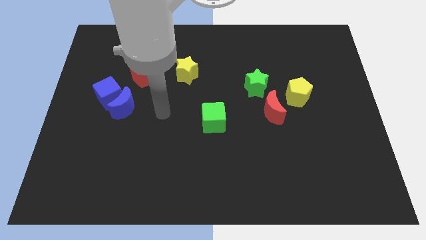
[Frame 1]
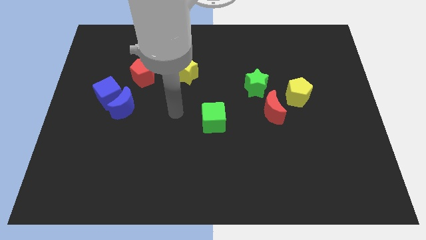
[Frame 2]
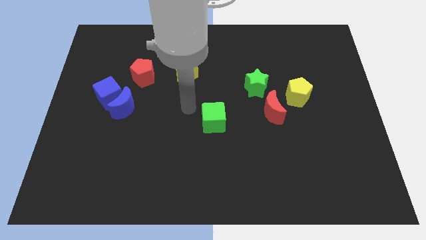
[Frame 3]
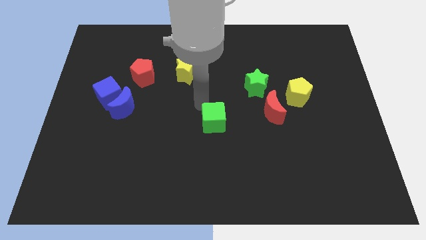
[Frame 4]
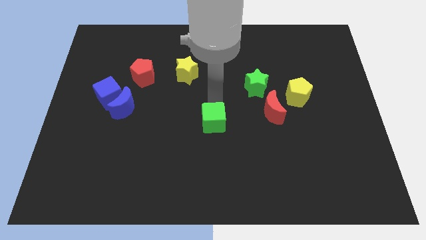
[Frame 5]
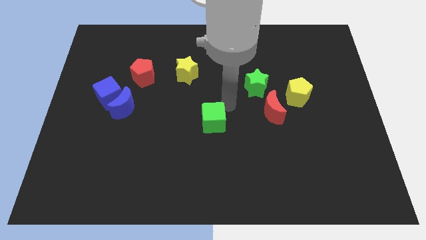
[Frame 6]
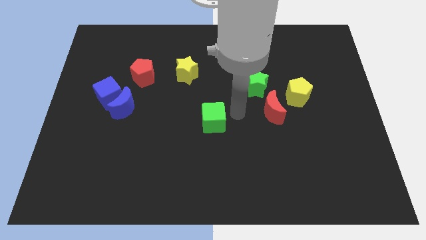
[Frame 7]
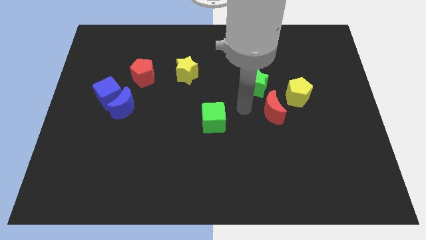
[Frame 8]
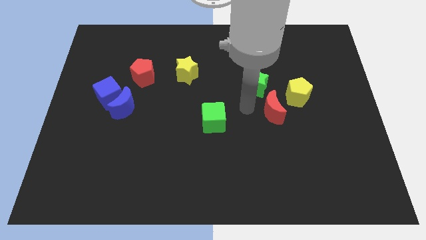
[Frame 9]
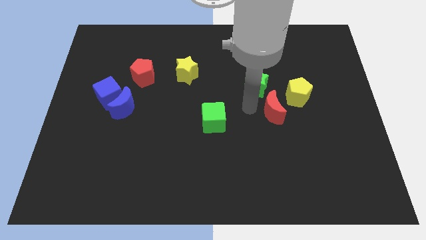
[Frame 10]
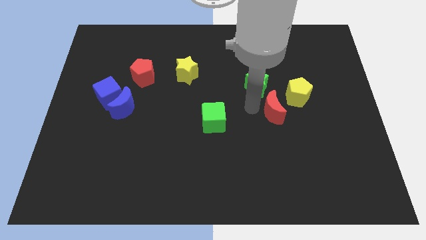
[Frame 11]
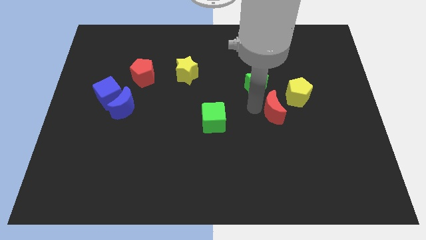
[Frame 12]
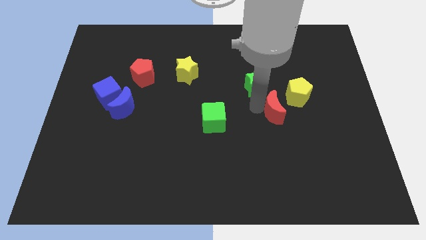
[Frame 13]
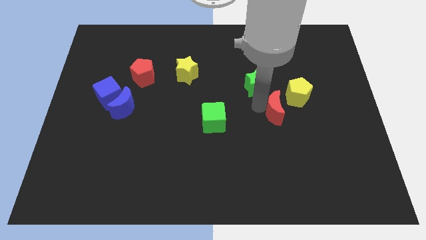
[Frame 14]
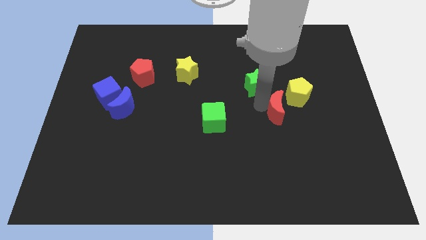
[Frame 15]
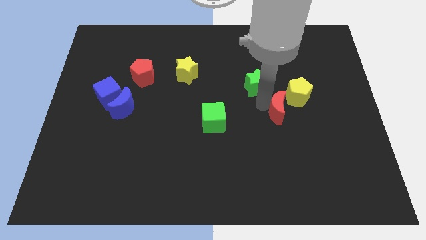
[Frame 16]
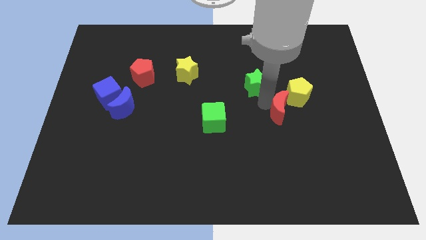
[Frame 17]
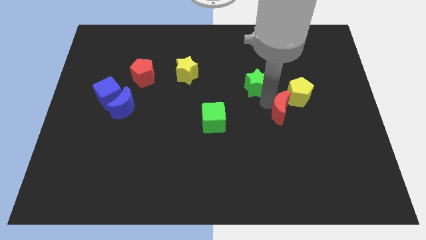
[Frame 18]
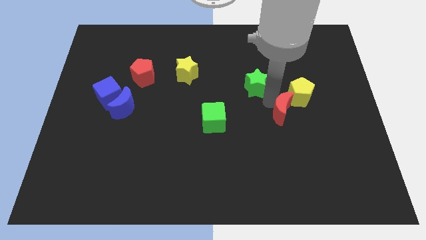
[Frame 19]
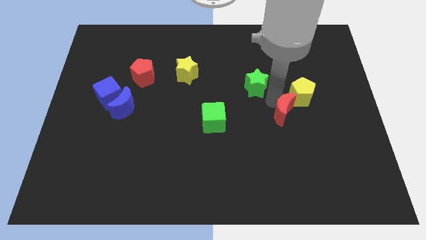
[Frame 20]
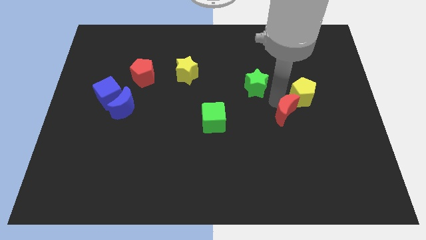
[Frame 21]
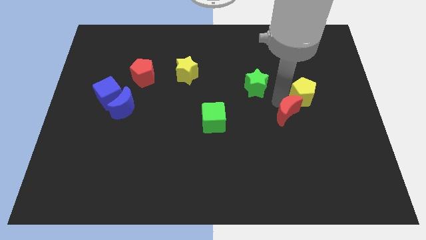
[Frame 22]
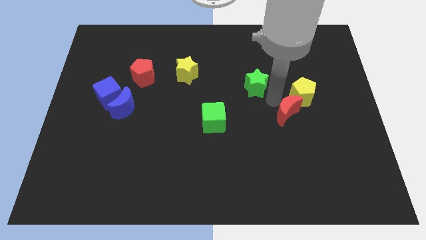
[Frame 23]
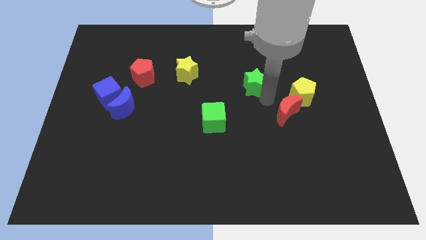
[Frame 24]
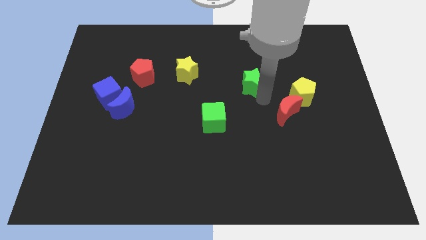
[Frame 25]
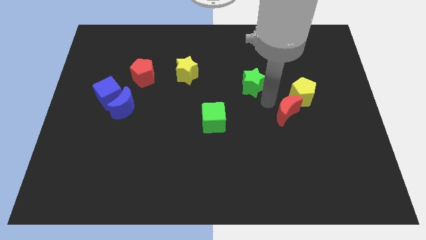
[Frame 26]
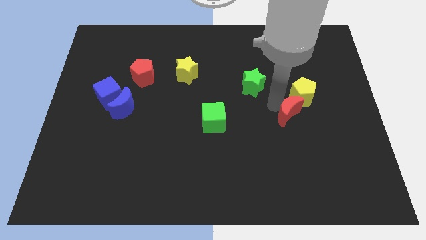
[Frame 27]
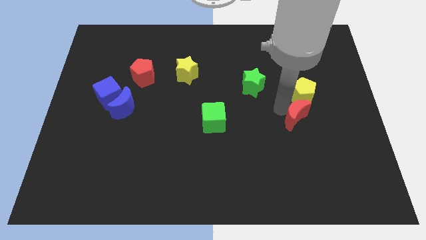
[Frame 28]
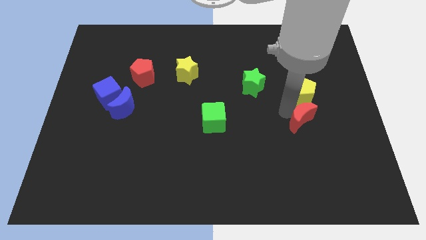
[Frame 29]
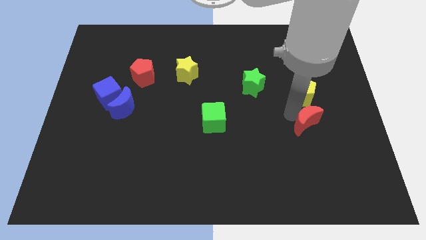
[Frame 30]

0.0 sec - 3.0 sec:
slightly slide the red moon diagonally down and to the right

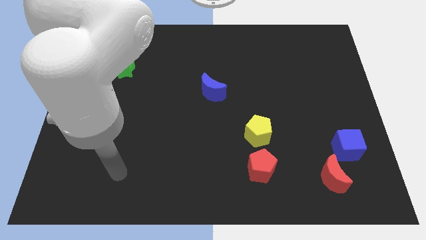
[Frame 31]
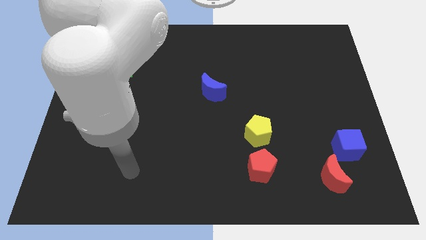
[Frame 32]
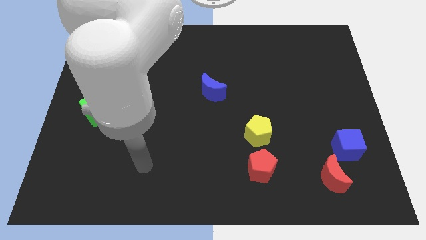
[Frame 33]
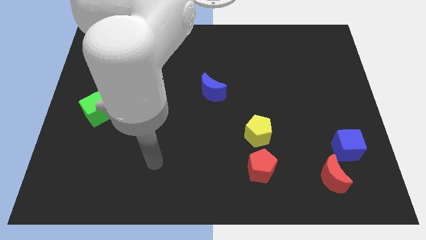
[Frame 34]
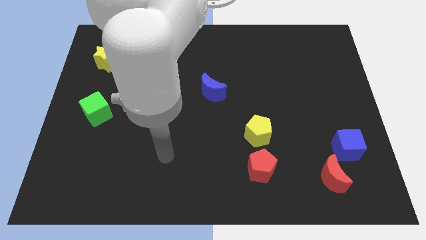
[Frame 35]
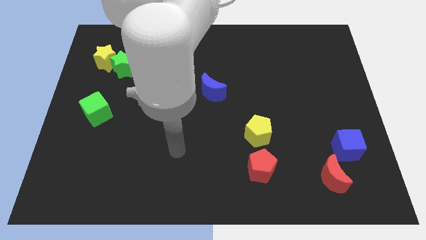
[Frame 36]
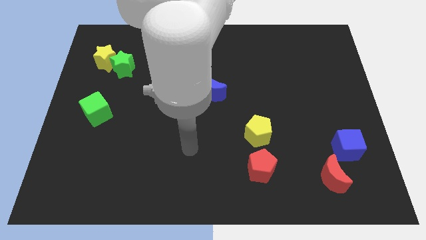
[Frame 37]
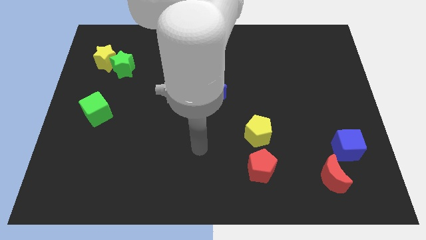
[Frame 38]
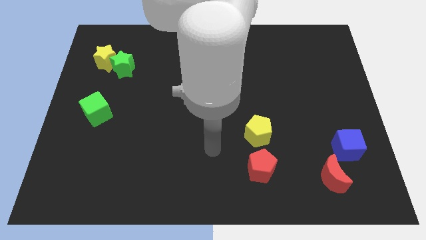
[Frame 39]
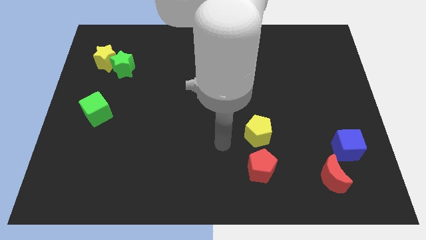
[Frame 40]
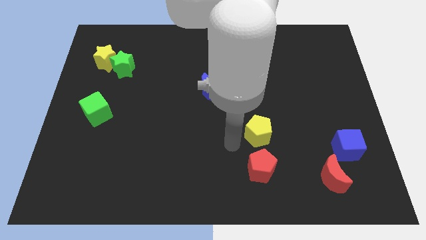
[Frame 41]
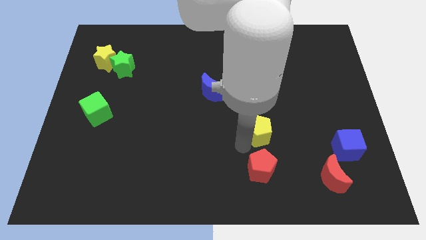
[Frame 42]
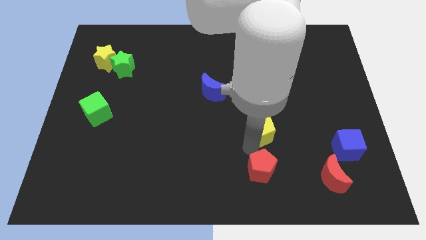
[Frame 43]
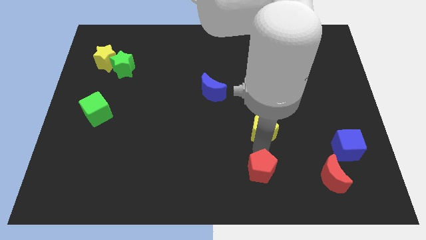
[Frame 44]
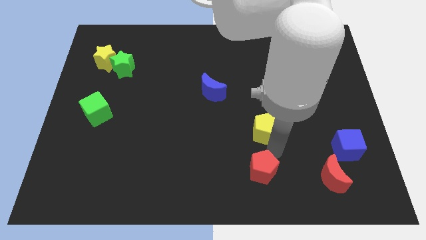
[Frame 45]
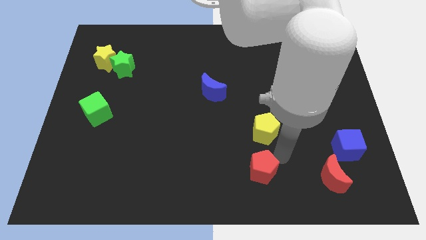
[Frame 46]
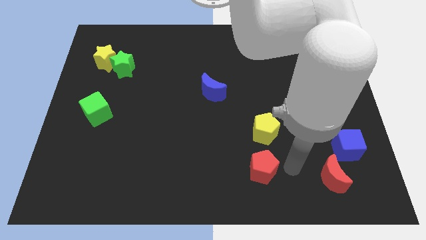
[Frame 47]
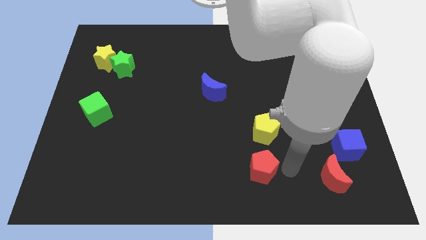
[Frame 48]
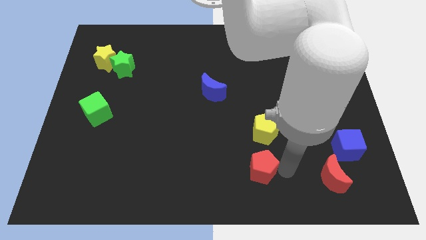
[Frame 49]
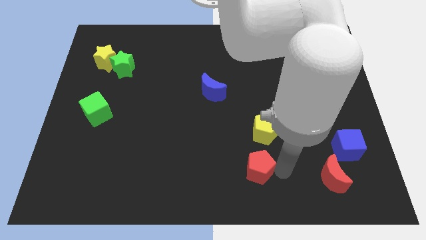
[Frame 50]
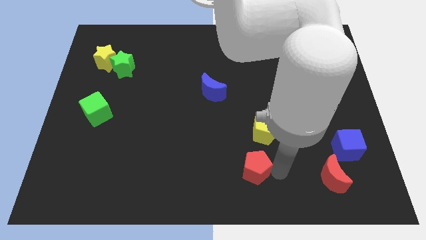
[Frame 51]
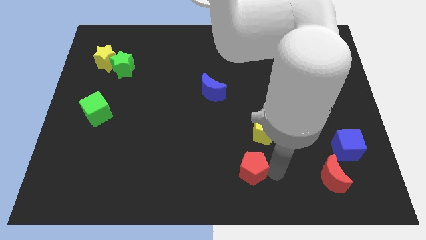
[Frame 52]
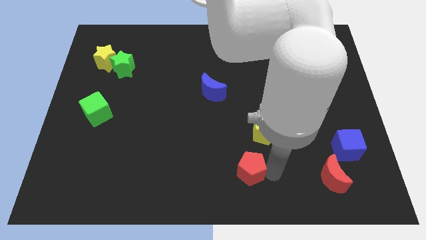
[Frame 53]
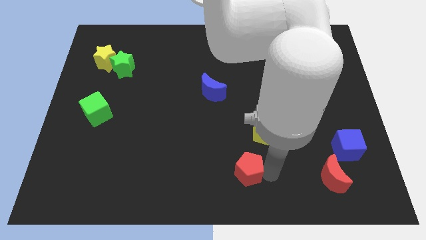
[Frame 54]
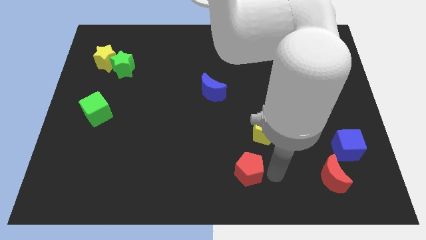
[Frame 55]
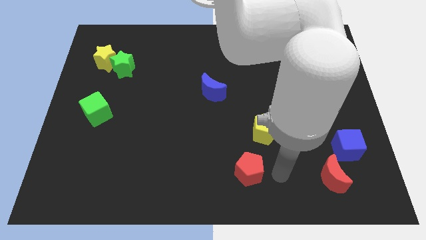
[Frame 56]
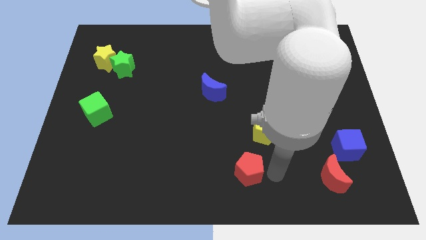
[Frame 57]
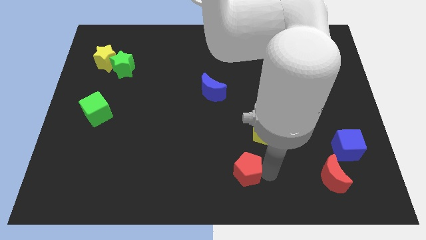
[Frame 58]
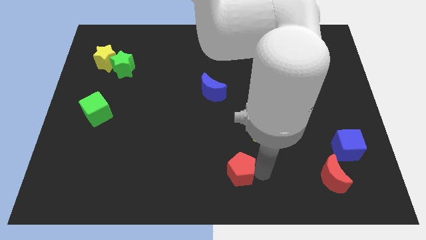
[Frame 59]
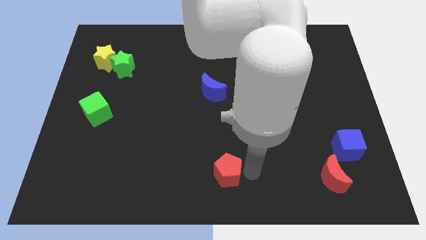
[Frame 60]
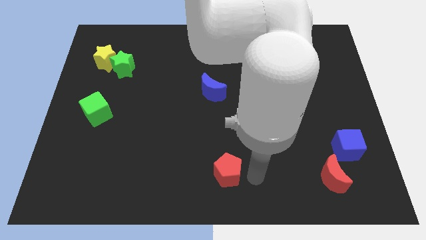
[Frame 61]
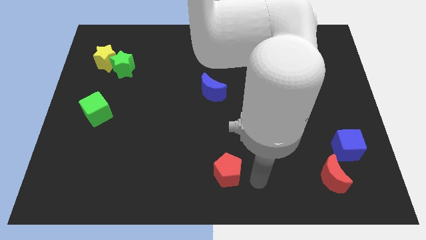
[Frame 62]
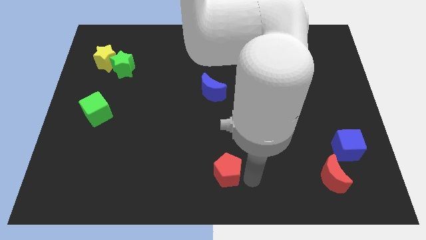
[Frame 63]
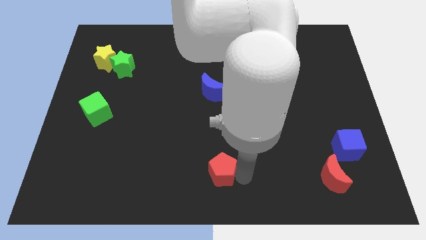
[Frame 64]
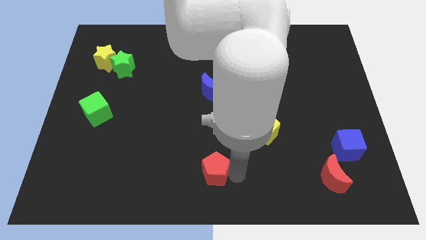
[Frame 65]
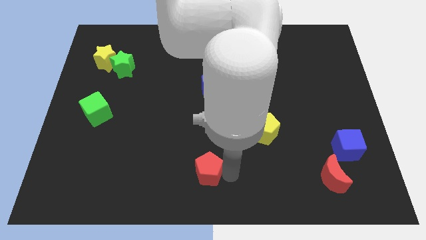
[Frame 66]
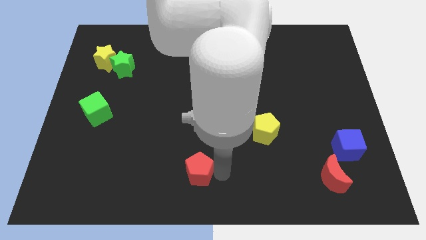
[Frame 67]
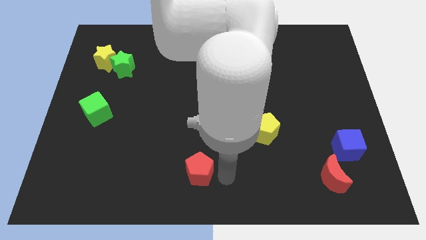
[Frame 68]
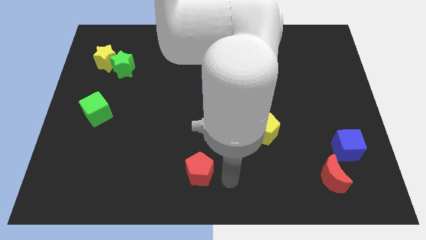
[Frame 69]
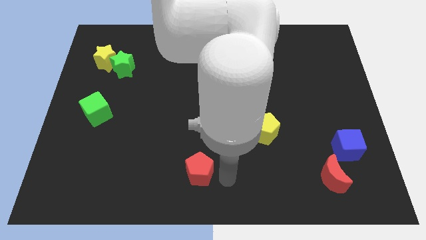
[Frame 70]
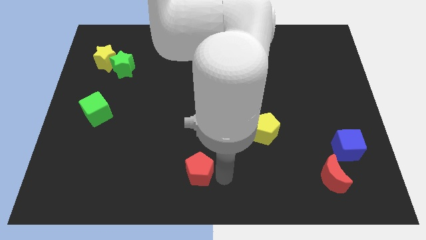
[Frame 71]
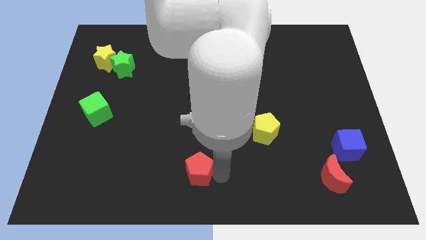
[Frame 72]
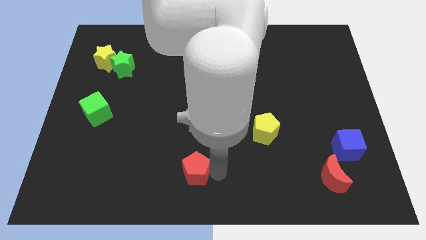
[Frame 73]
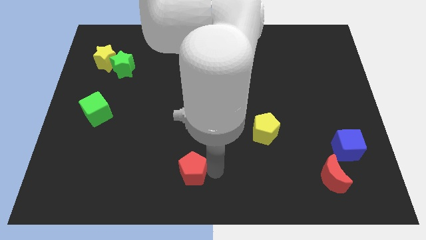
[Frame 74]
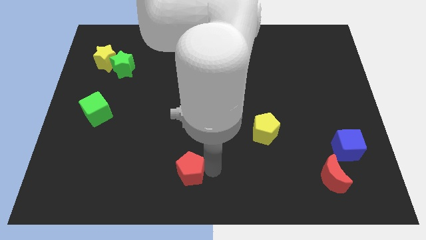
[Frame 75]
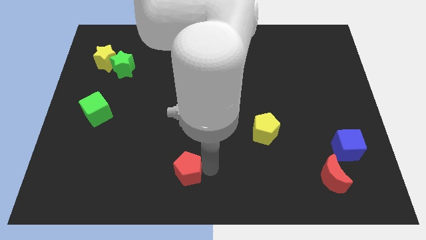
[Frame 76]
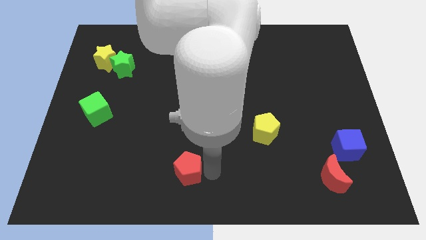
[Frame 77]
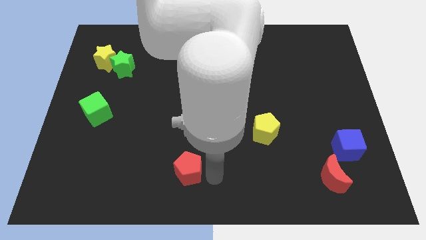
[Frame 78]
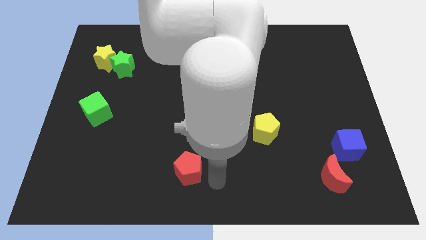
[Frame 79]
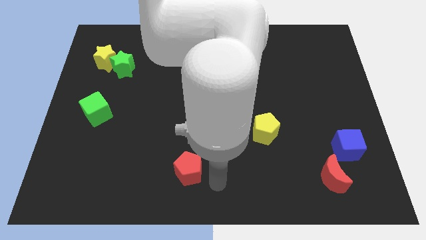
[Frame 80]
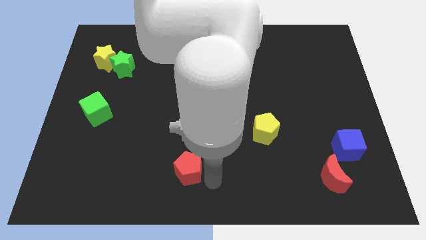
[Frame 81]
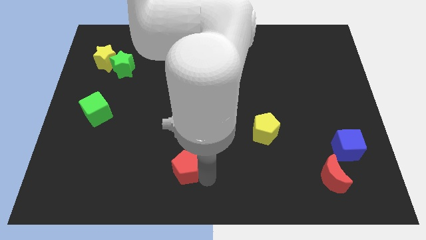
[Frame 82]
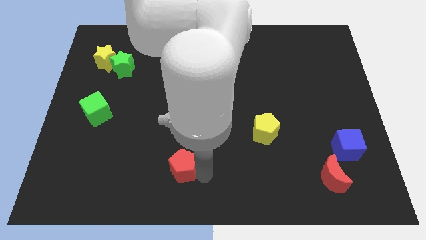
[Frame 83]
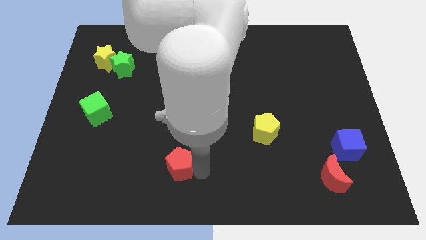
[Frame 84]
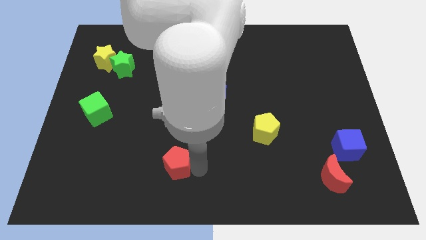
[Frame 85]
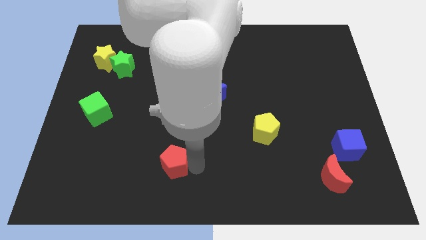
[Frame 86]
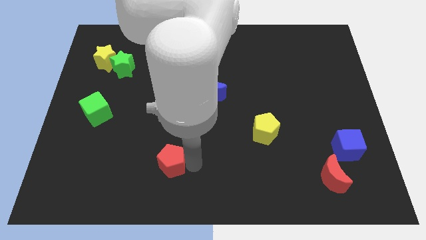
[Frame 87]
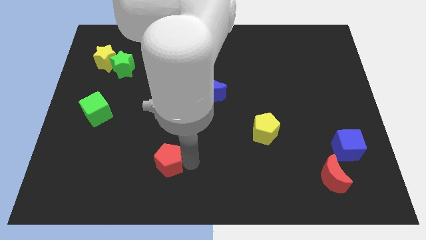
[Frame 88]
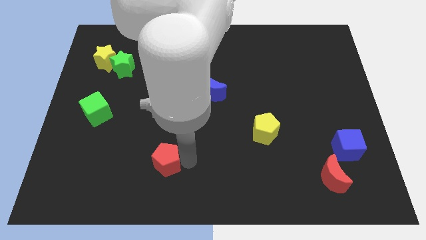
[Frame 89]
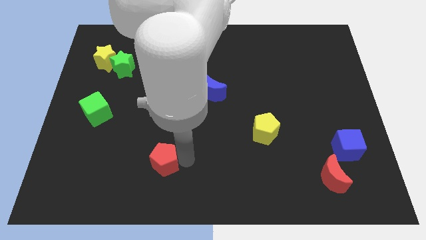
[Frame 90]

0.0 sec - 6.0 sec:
slide the red pentagon left
